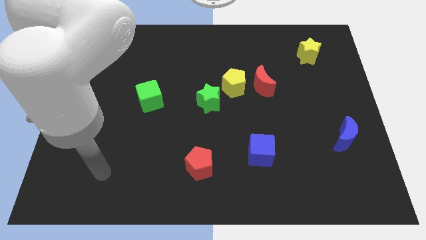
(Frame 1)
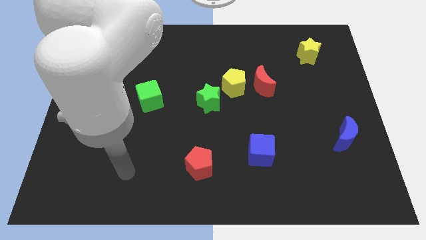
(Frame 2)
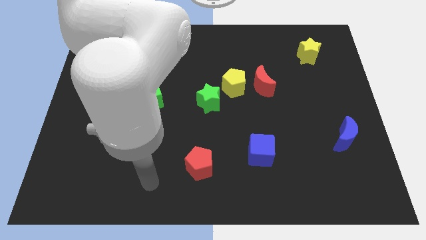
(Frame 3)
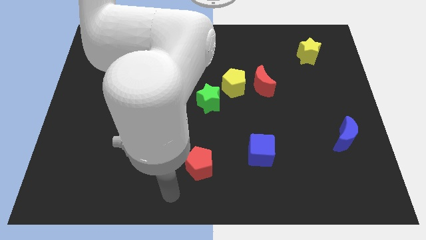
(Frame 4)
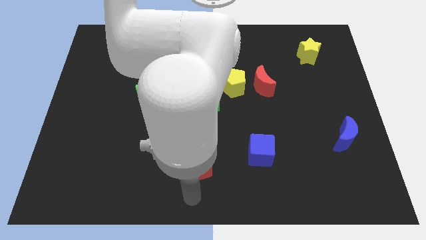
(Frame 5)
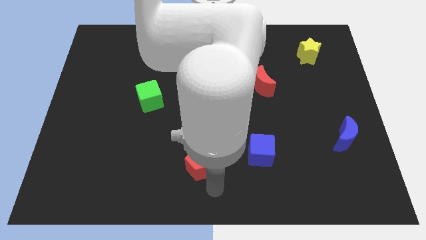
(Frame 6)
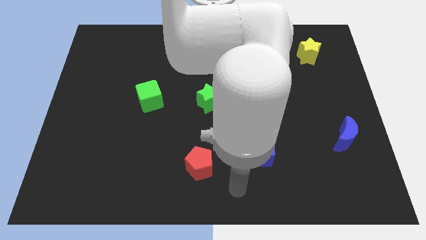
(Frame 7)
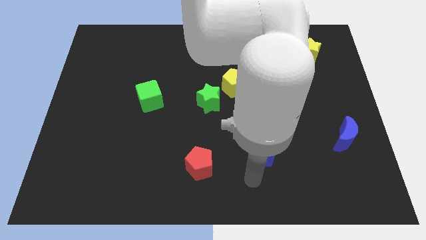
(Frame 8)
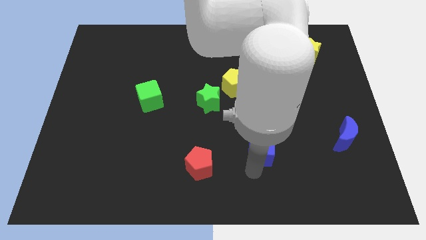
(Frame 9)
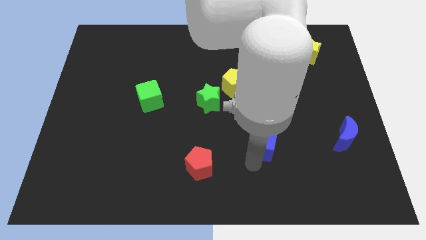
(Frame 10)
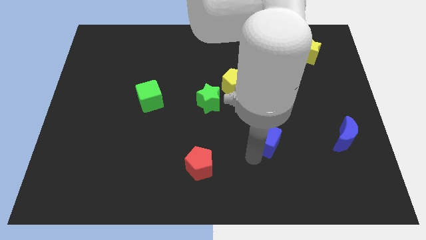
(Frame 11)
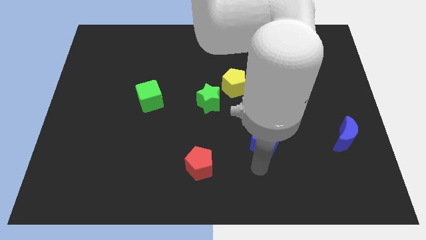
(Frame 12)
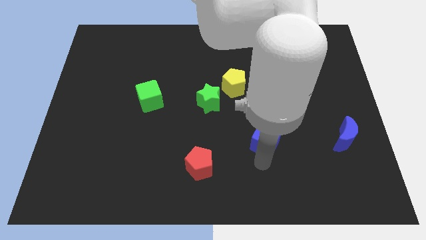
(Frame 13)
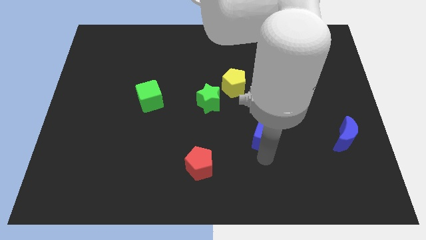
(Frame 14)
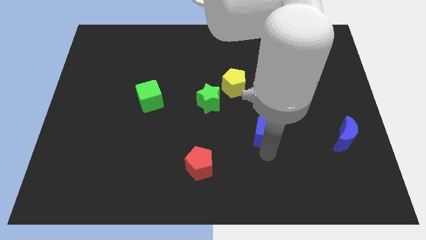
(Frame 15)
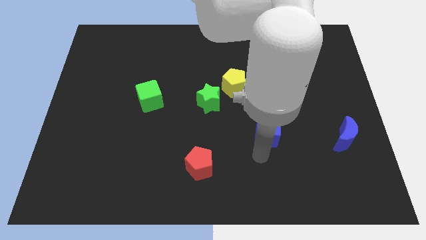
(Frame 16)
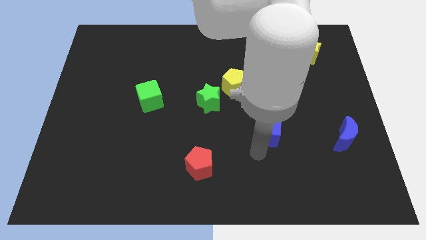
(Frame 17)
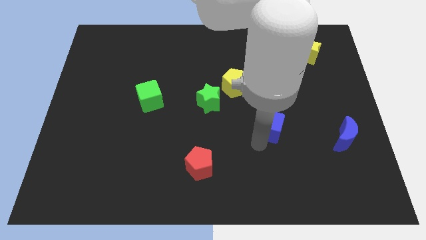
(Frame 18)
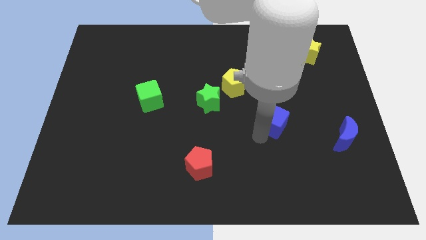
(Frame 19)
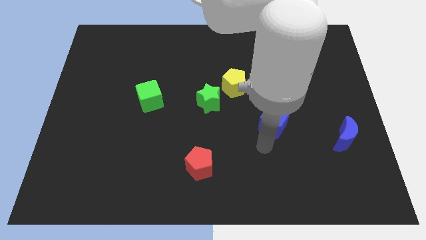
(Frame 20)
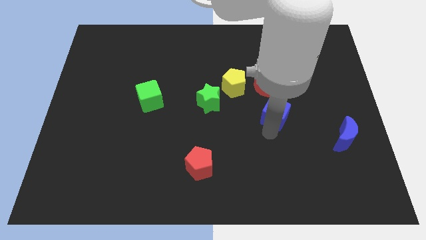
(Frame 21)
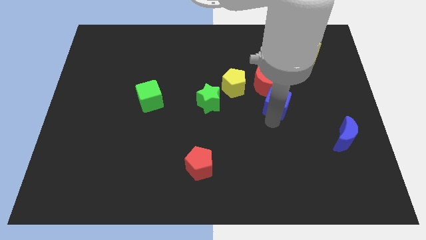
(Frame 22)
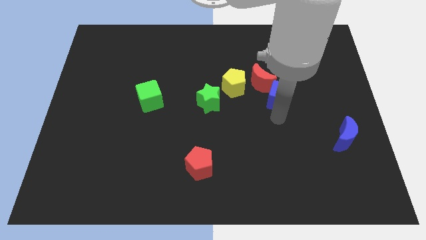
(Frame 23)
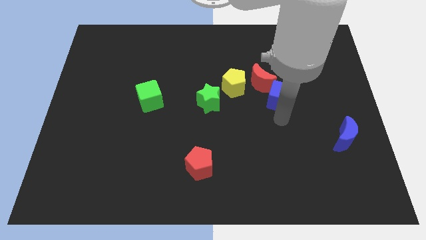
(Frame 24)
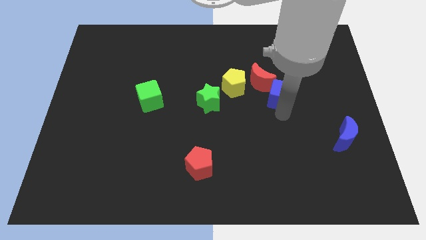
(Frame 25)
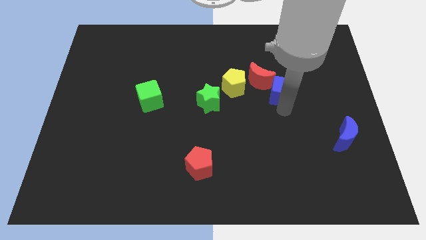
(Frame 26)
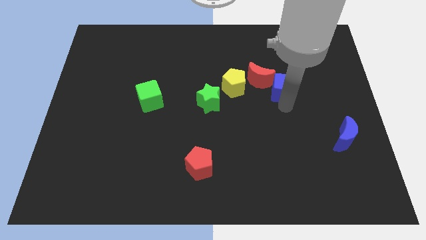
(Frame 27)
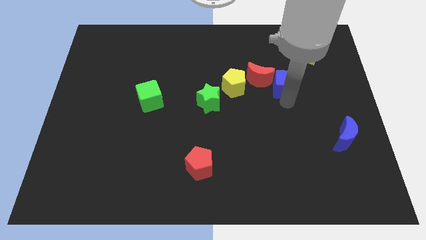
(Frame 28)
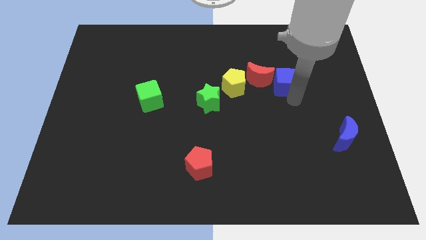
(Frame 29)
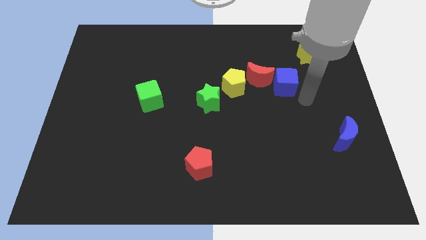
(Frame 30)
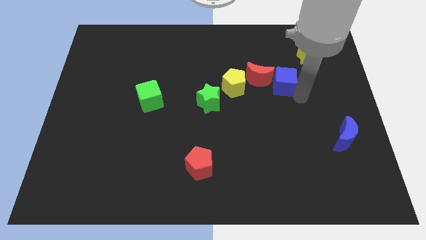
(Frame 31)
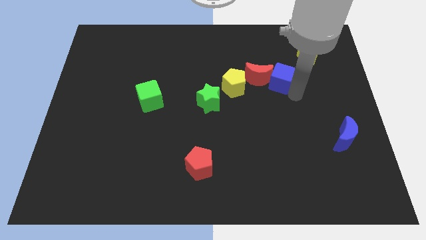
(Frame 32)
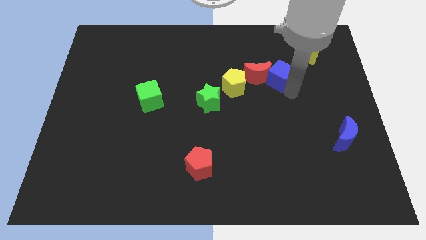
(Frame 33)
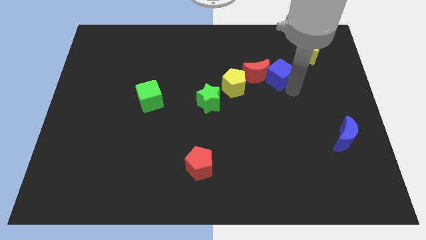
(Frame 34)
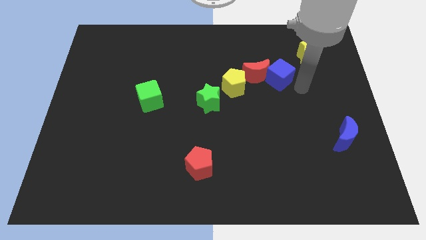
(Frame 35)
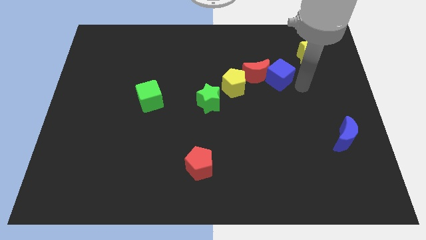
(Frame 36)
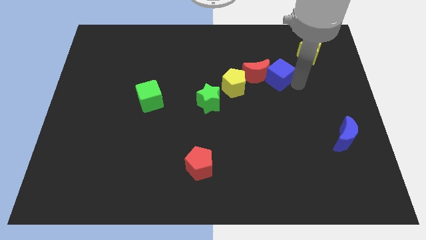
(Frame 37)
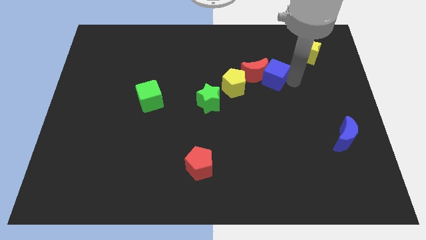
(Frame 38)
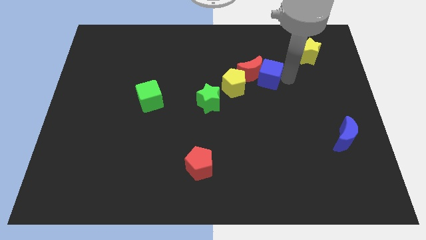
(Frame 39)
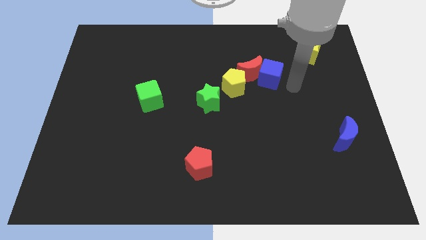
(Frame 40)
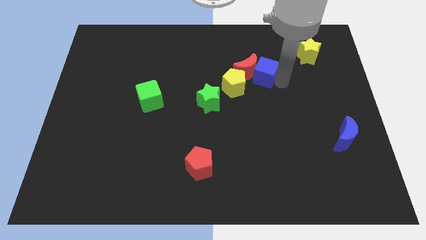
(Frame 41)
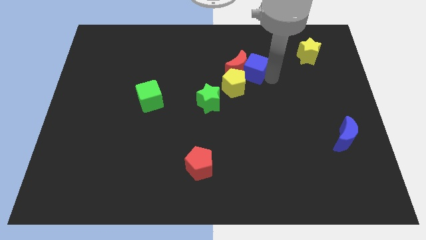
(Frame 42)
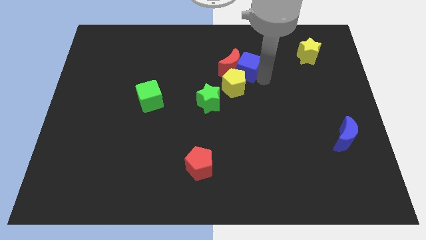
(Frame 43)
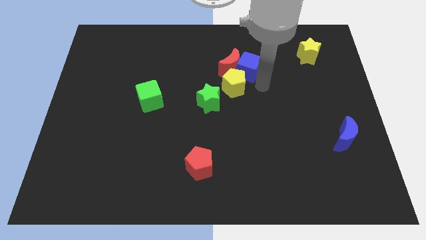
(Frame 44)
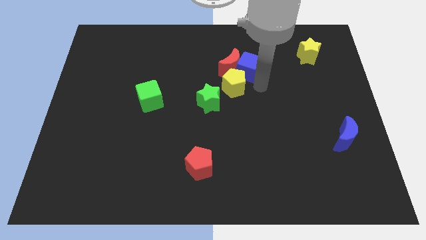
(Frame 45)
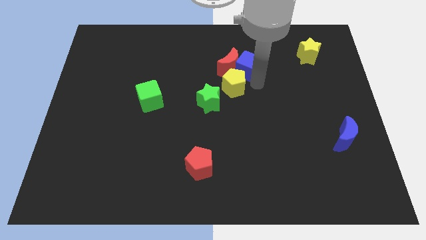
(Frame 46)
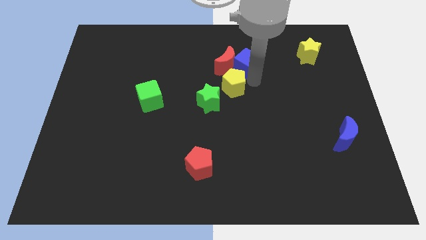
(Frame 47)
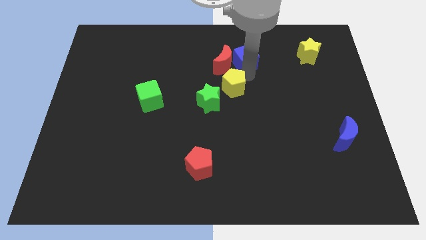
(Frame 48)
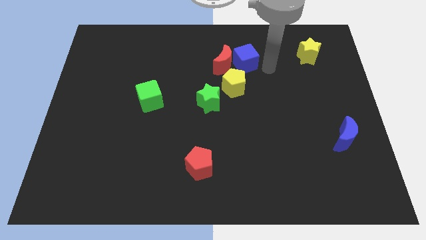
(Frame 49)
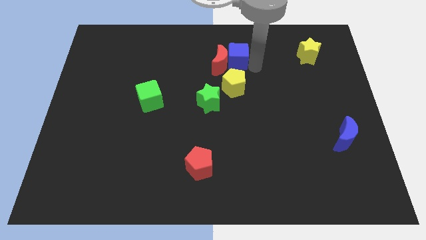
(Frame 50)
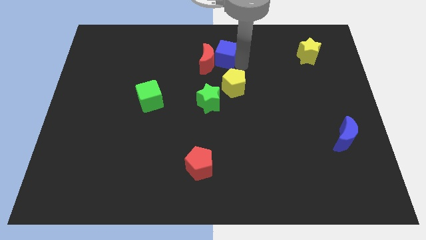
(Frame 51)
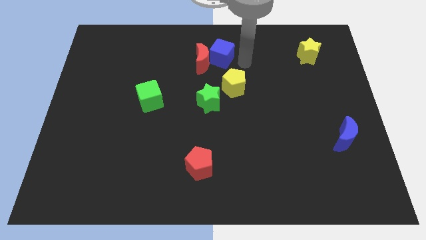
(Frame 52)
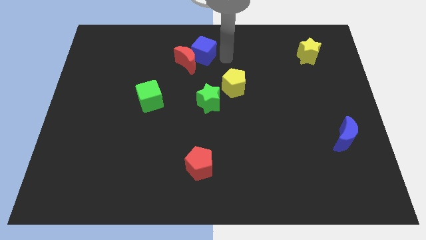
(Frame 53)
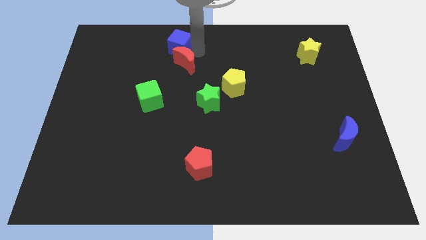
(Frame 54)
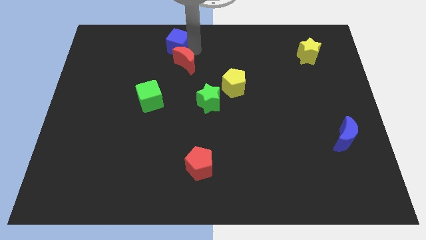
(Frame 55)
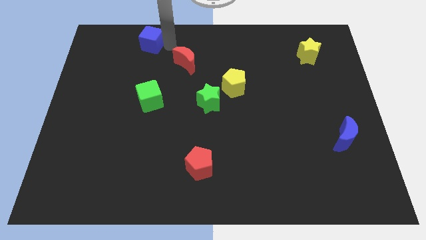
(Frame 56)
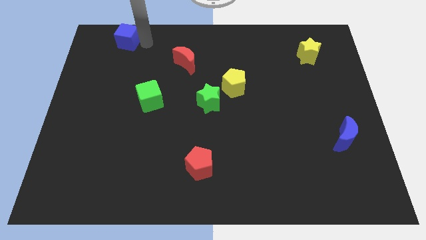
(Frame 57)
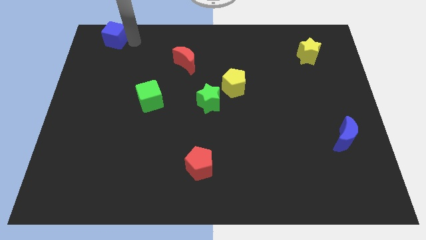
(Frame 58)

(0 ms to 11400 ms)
push the blue cube to the upper left corner

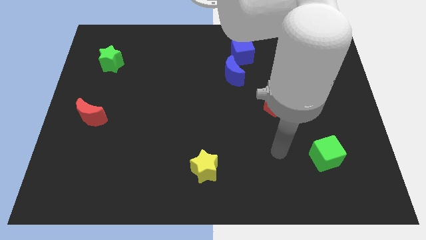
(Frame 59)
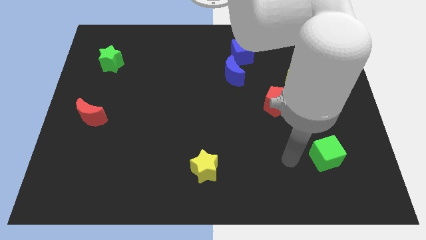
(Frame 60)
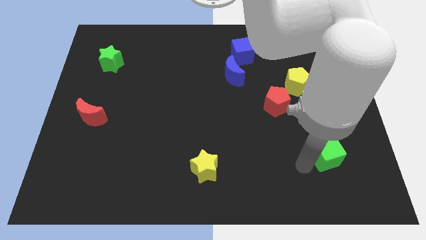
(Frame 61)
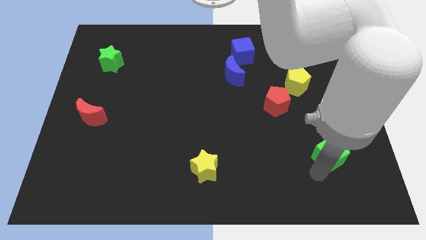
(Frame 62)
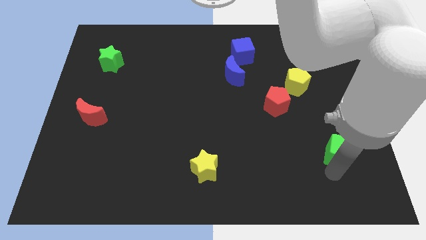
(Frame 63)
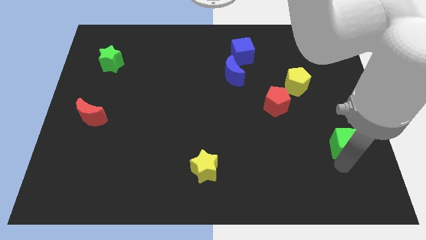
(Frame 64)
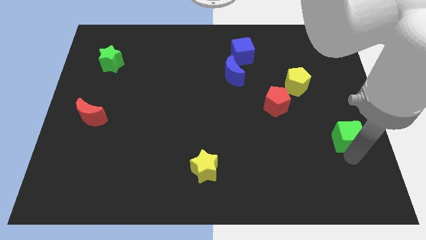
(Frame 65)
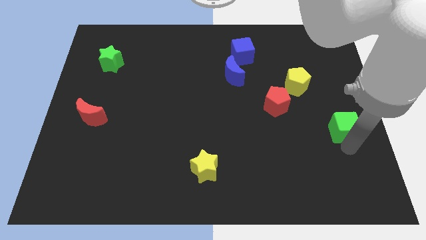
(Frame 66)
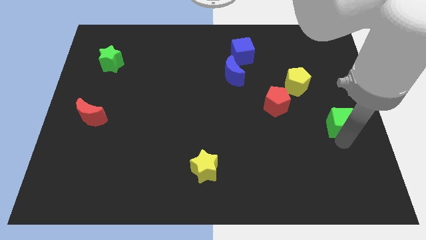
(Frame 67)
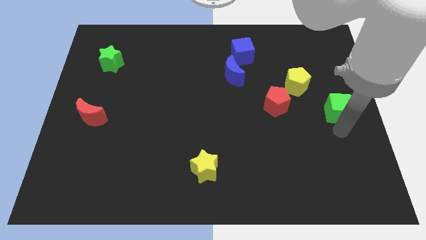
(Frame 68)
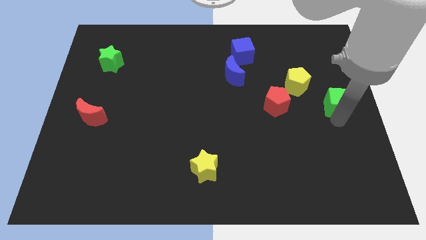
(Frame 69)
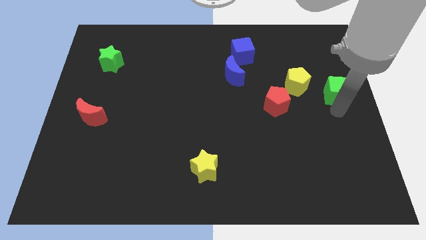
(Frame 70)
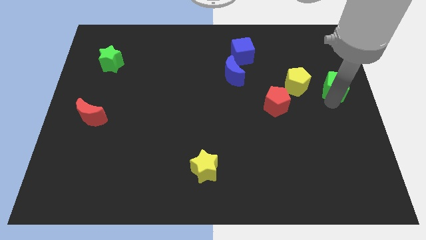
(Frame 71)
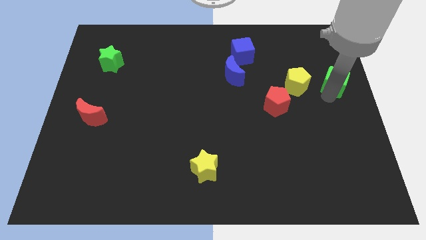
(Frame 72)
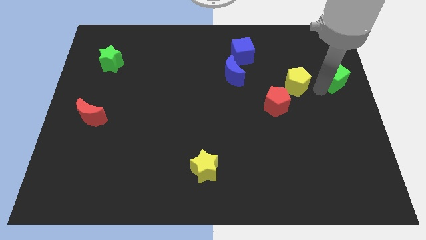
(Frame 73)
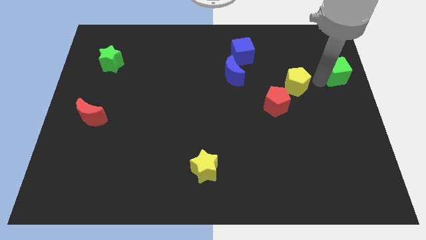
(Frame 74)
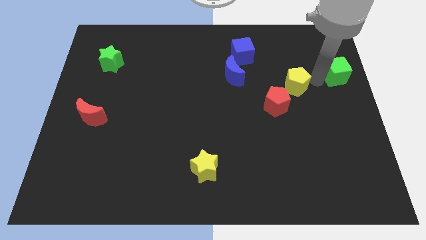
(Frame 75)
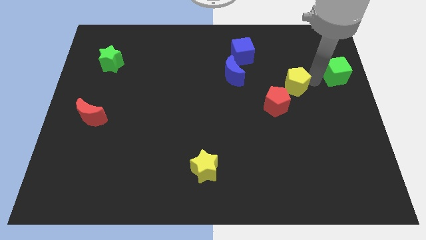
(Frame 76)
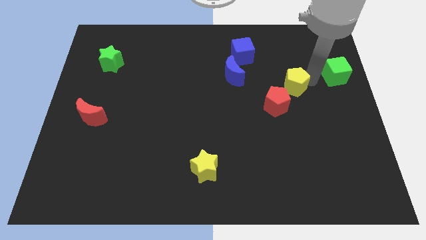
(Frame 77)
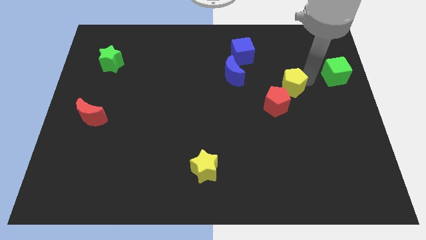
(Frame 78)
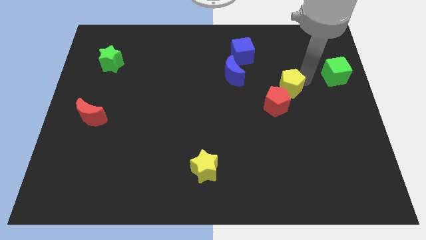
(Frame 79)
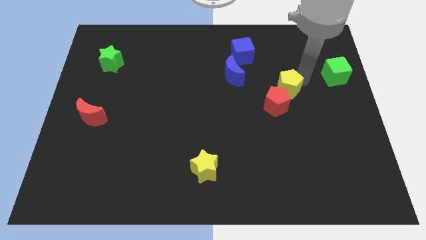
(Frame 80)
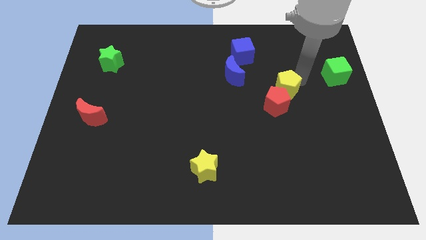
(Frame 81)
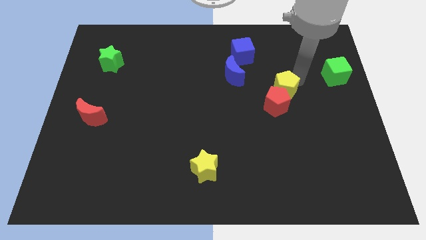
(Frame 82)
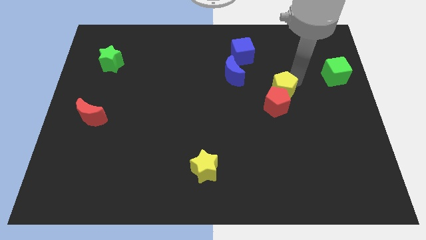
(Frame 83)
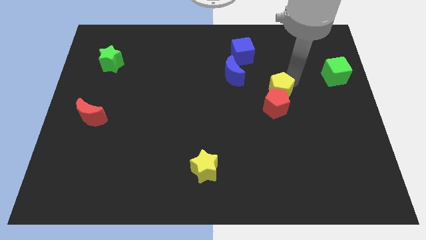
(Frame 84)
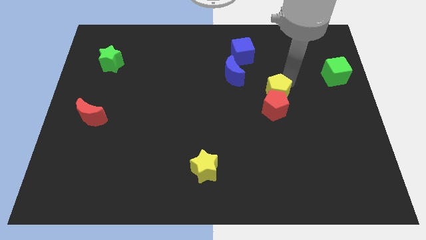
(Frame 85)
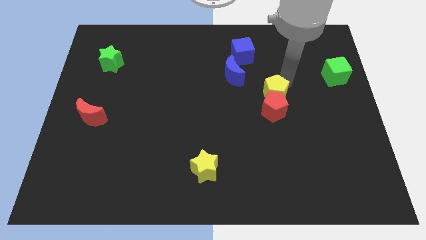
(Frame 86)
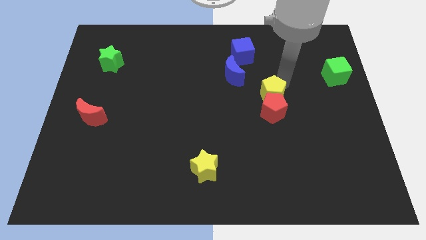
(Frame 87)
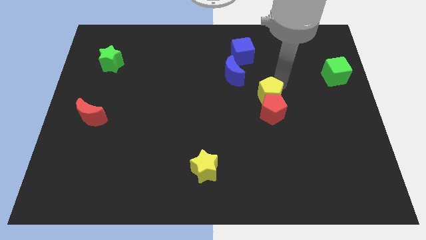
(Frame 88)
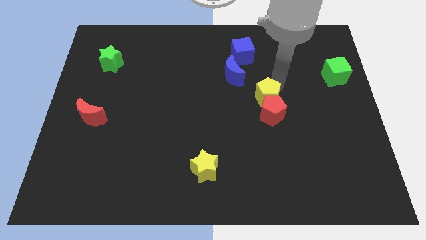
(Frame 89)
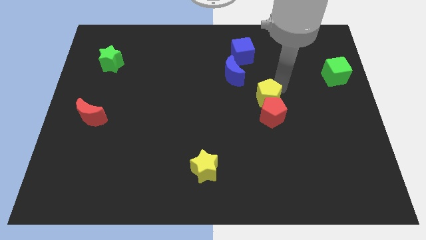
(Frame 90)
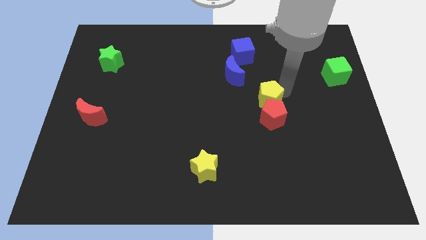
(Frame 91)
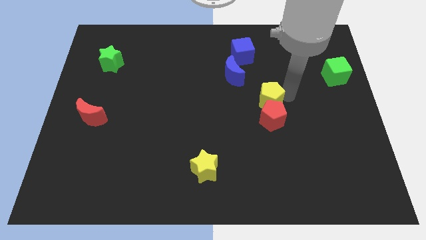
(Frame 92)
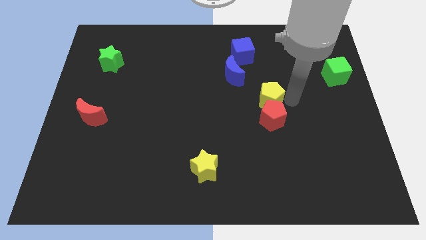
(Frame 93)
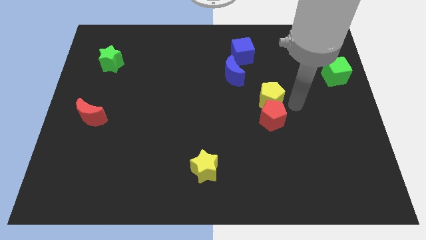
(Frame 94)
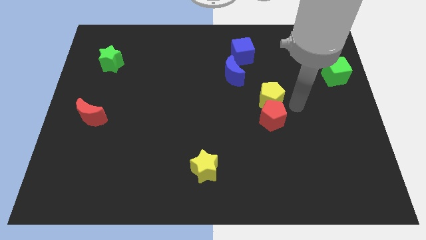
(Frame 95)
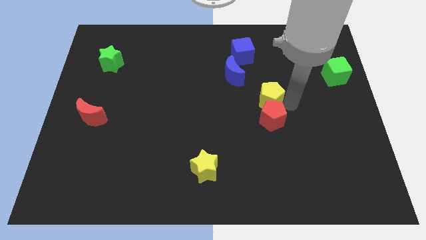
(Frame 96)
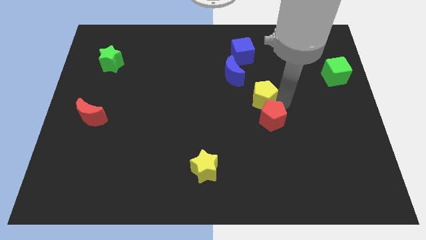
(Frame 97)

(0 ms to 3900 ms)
push the yellow pentagon to the center of the board
